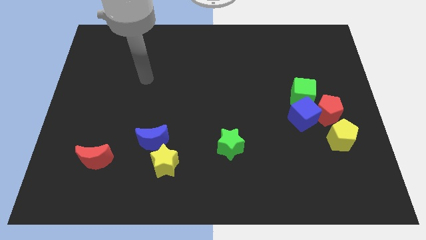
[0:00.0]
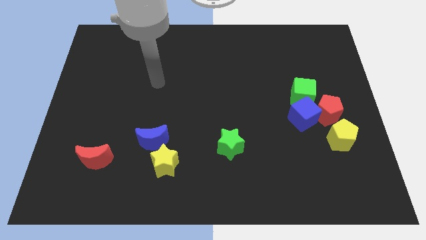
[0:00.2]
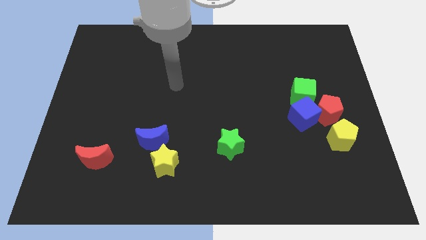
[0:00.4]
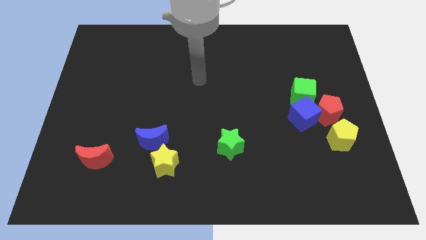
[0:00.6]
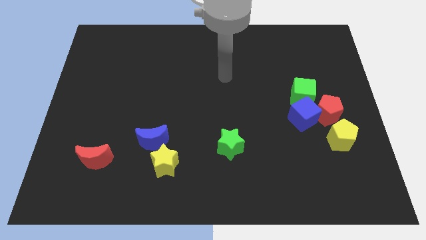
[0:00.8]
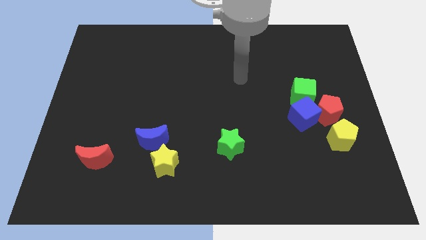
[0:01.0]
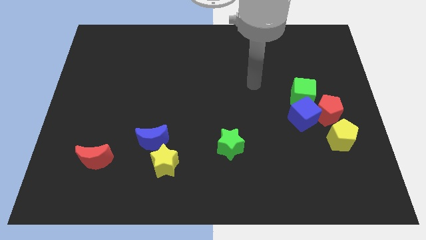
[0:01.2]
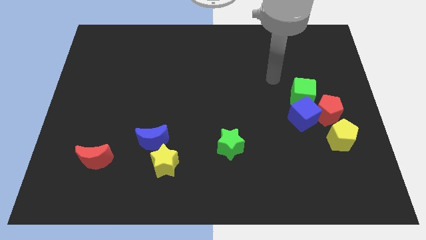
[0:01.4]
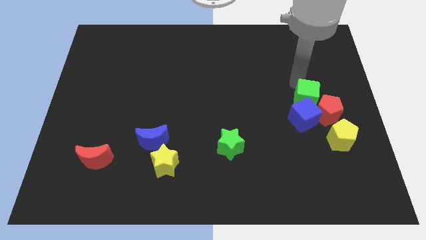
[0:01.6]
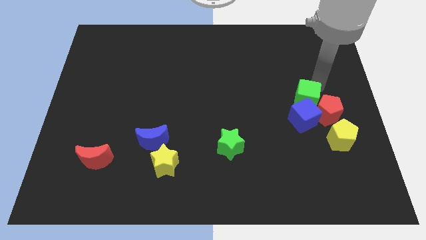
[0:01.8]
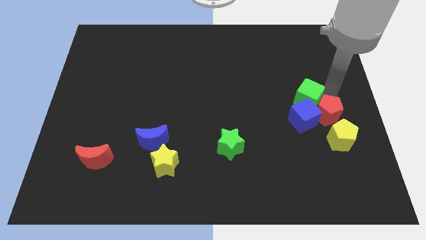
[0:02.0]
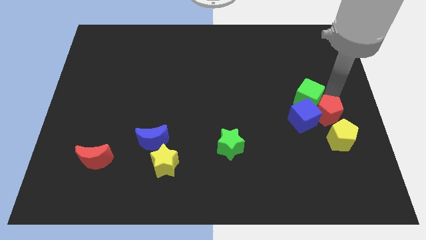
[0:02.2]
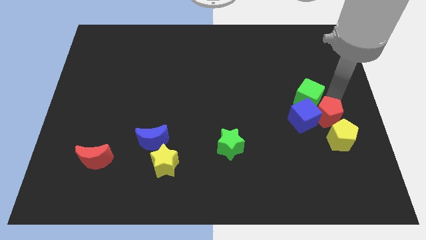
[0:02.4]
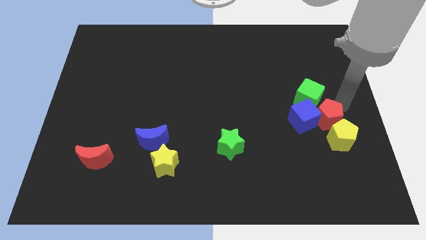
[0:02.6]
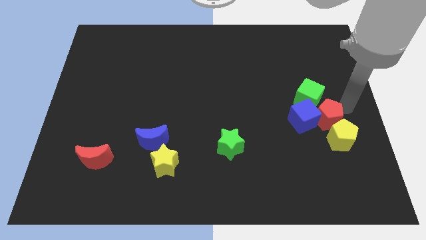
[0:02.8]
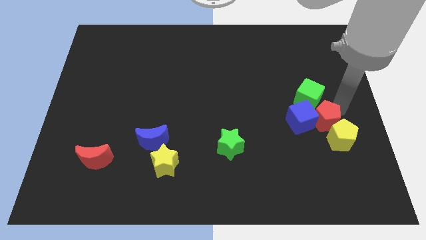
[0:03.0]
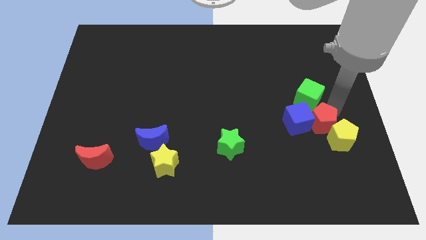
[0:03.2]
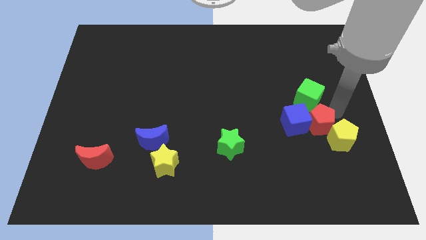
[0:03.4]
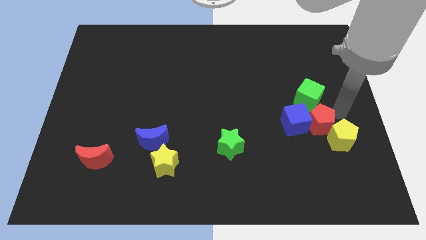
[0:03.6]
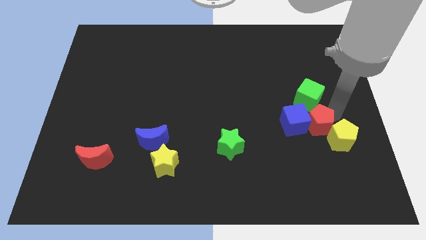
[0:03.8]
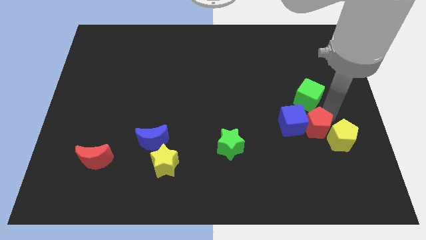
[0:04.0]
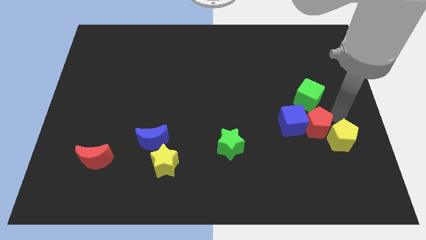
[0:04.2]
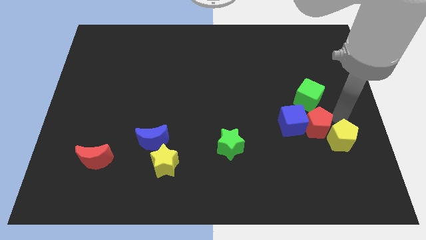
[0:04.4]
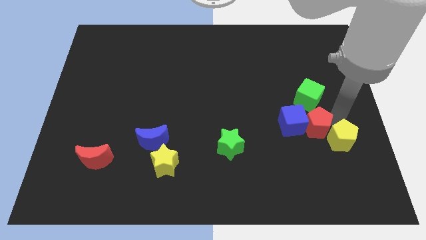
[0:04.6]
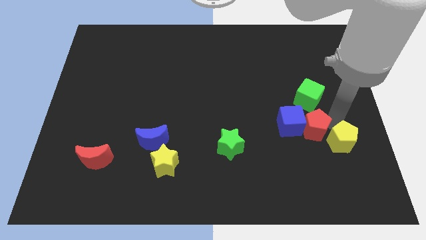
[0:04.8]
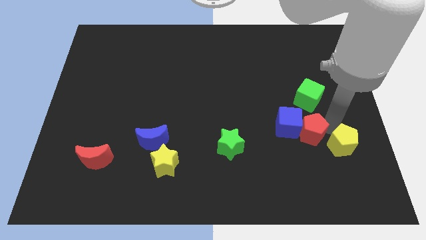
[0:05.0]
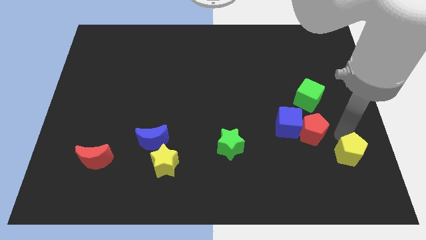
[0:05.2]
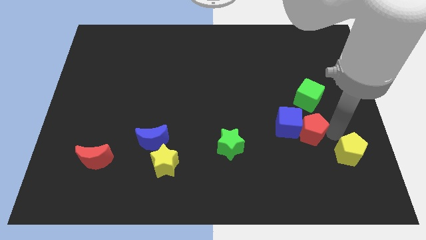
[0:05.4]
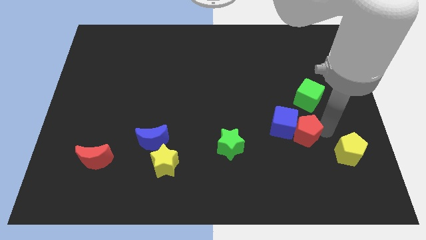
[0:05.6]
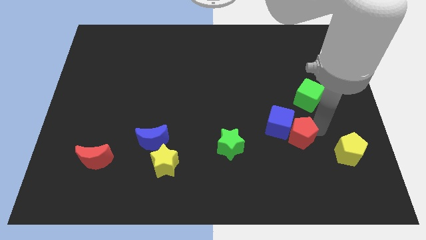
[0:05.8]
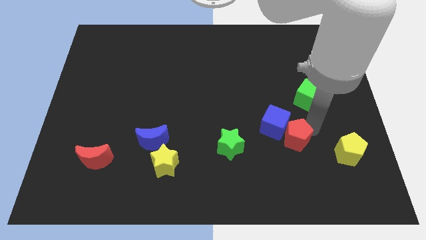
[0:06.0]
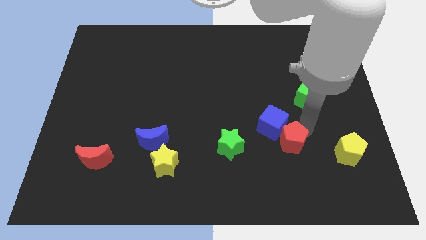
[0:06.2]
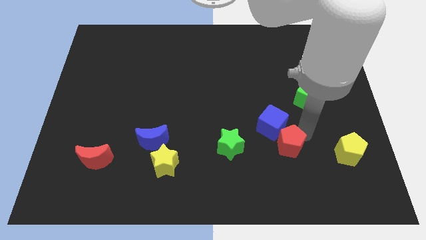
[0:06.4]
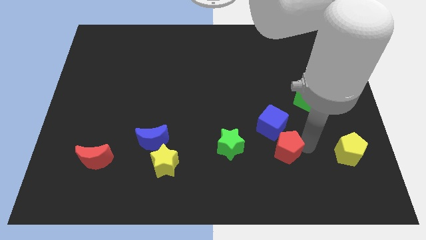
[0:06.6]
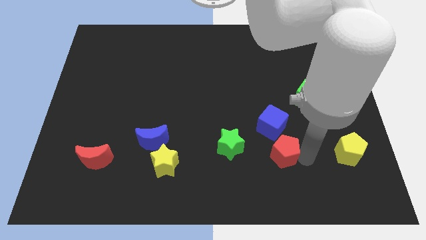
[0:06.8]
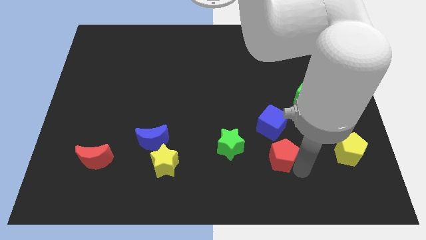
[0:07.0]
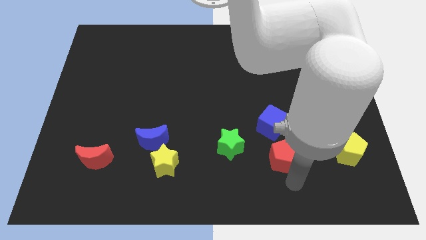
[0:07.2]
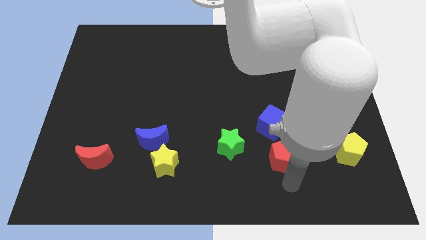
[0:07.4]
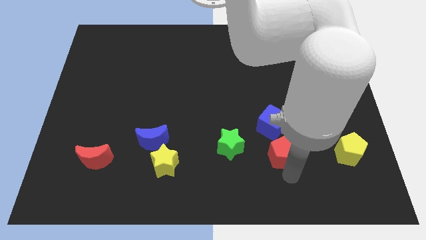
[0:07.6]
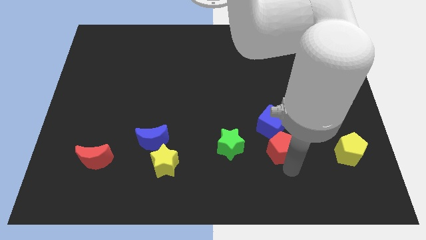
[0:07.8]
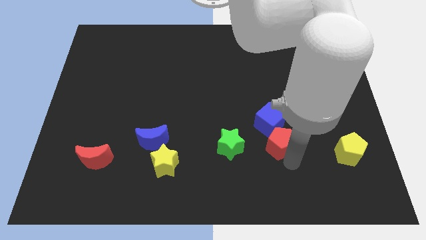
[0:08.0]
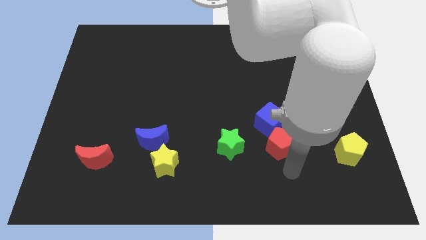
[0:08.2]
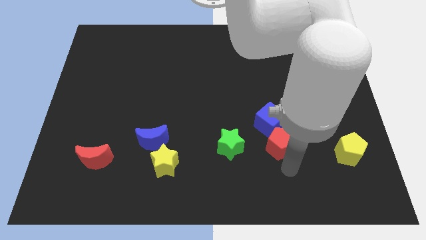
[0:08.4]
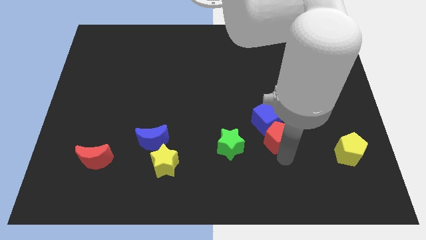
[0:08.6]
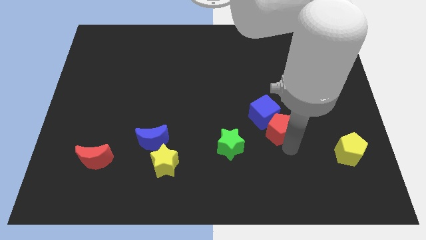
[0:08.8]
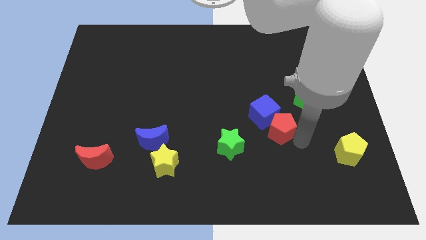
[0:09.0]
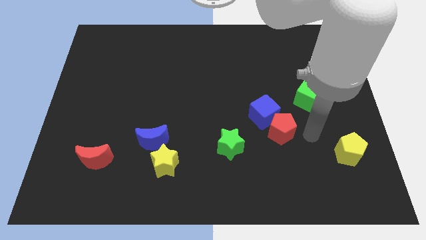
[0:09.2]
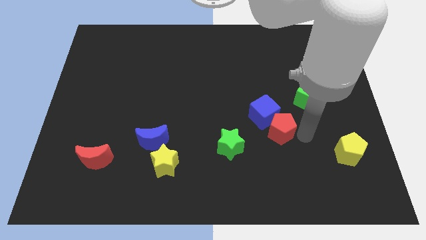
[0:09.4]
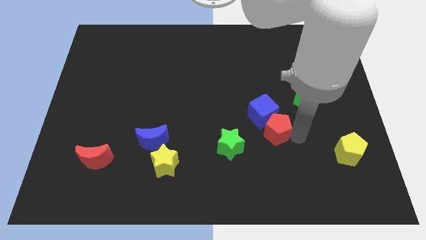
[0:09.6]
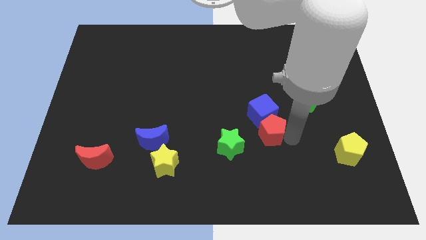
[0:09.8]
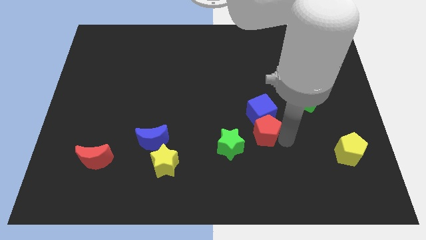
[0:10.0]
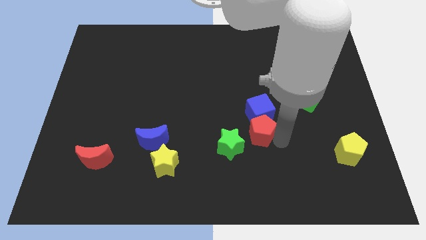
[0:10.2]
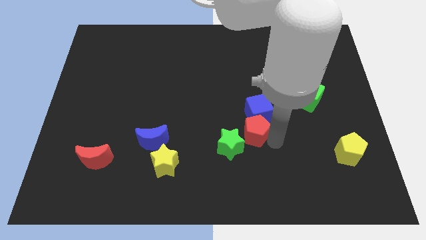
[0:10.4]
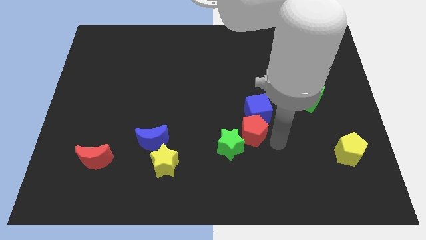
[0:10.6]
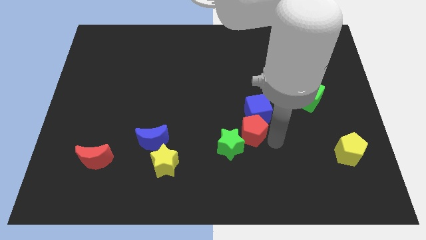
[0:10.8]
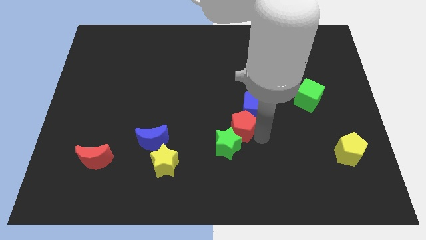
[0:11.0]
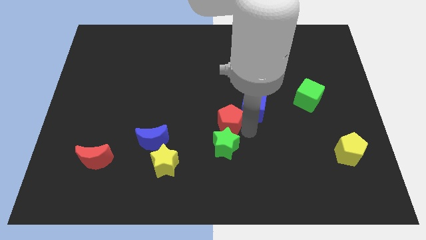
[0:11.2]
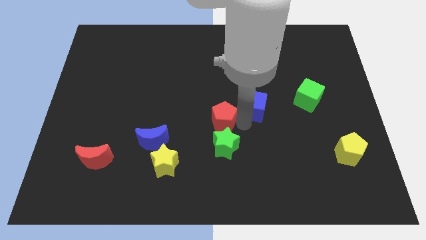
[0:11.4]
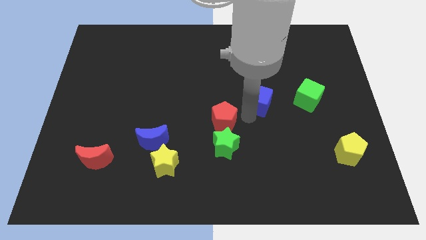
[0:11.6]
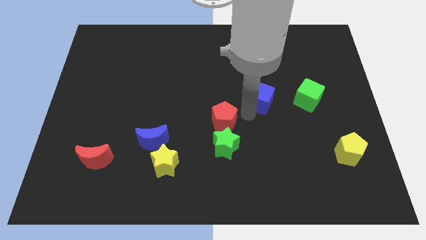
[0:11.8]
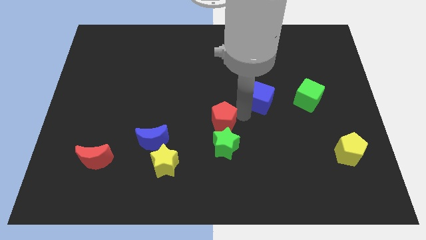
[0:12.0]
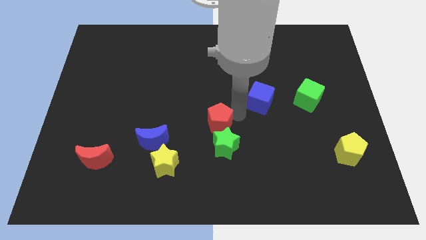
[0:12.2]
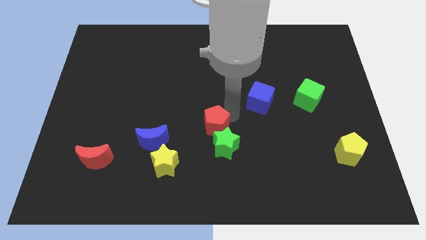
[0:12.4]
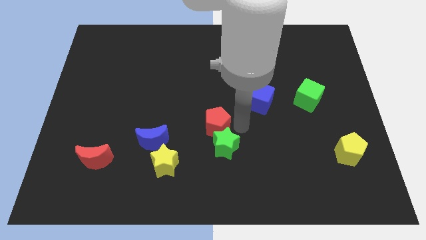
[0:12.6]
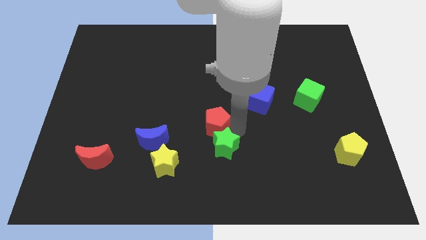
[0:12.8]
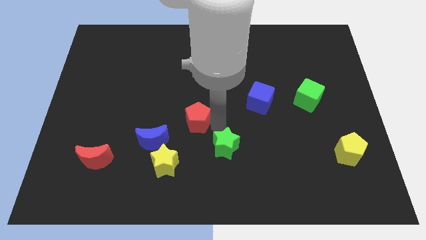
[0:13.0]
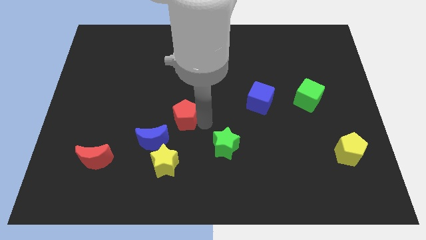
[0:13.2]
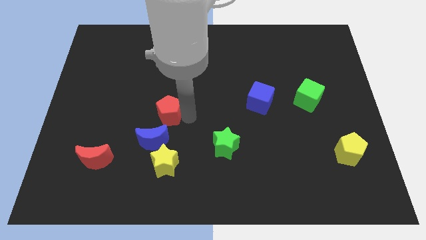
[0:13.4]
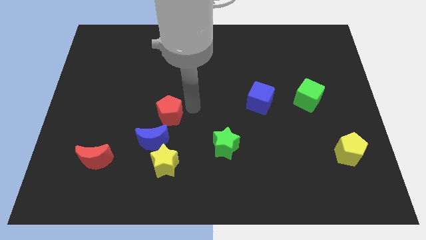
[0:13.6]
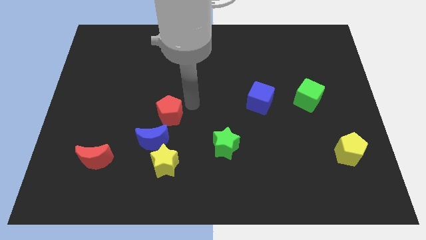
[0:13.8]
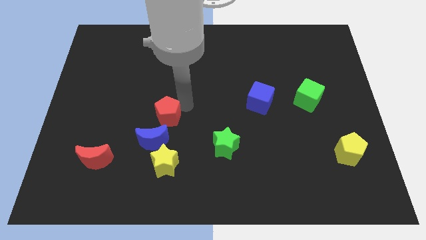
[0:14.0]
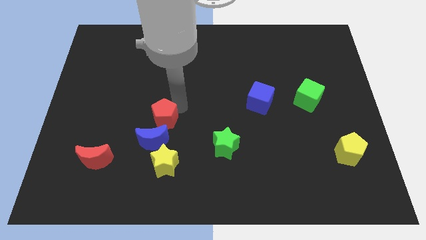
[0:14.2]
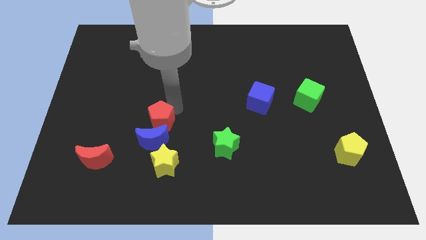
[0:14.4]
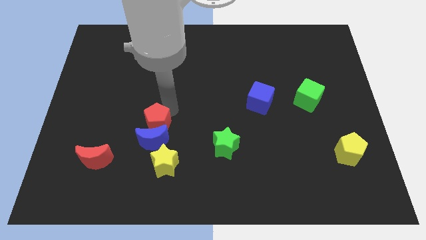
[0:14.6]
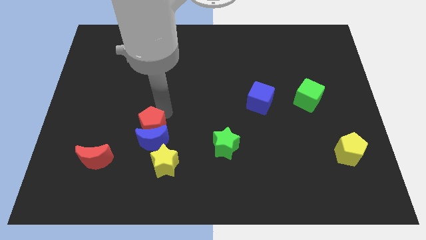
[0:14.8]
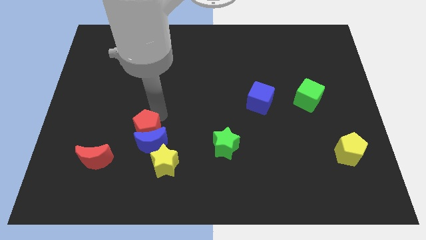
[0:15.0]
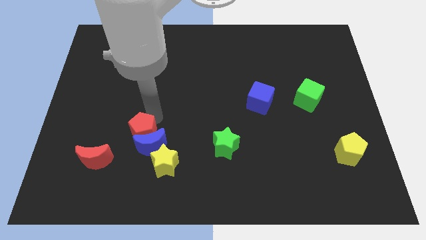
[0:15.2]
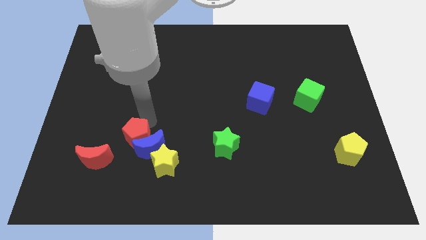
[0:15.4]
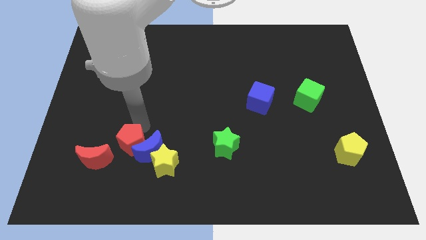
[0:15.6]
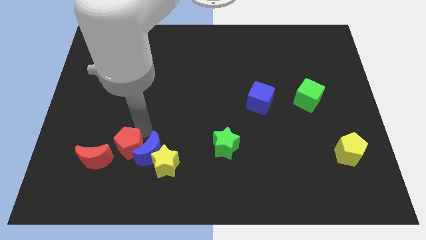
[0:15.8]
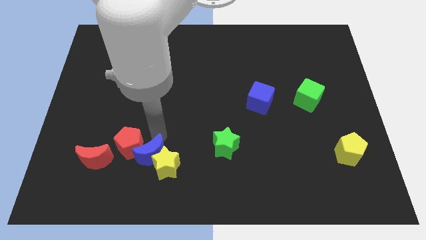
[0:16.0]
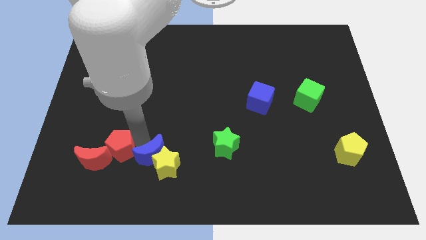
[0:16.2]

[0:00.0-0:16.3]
move the red pentagon close to the red moon
